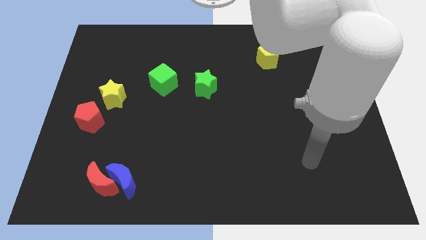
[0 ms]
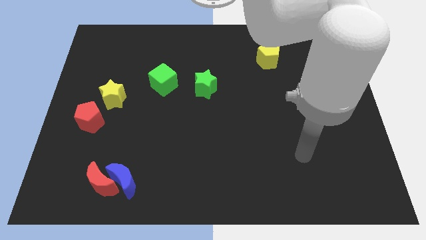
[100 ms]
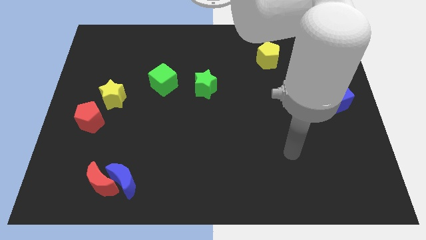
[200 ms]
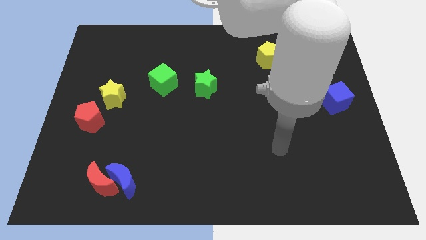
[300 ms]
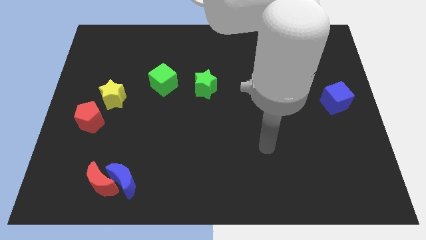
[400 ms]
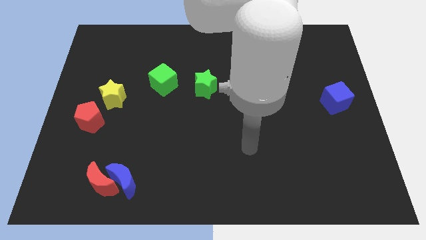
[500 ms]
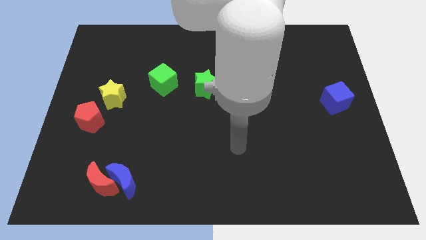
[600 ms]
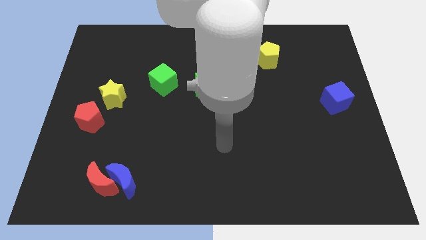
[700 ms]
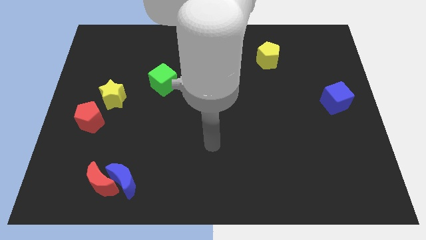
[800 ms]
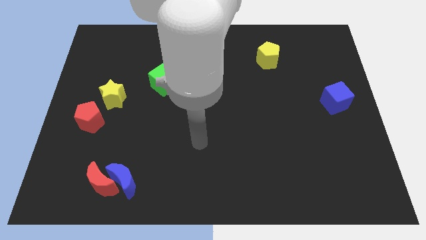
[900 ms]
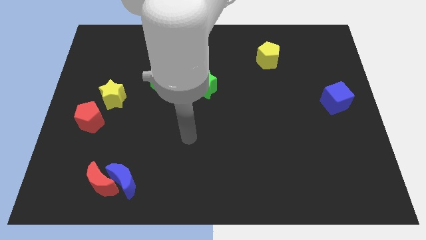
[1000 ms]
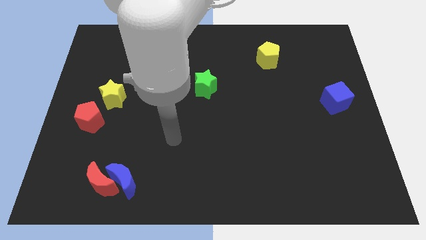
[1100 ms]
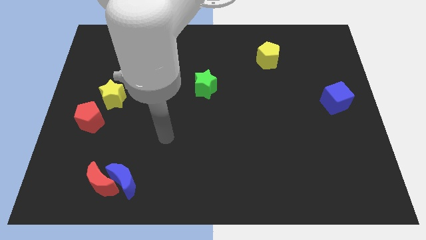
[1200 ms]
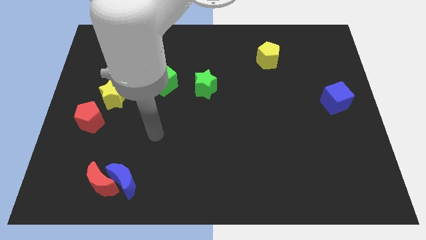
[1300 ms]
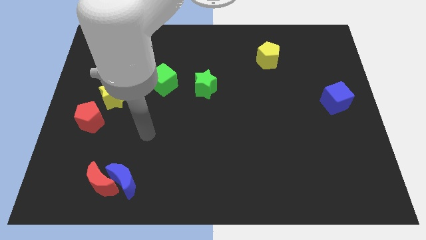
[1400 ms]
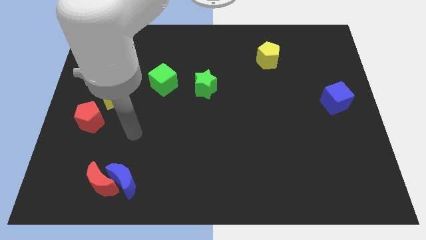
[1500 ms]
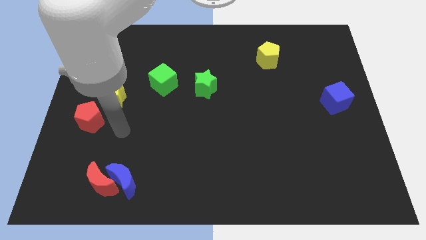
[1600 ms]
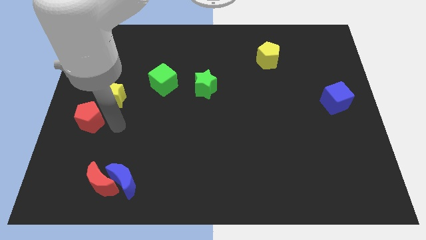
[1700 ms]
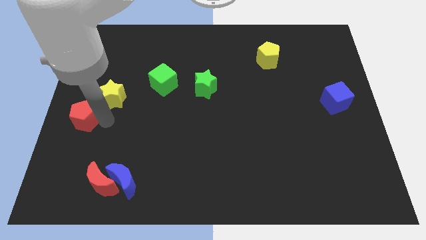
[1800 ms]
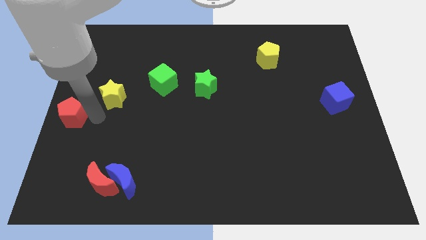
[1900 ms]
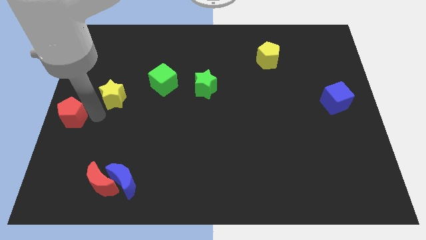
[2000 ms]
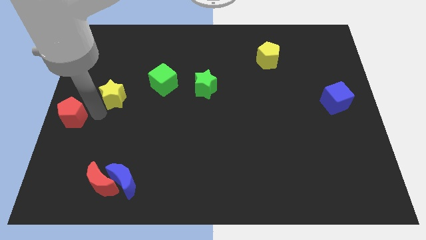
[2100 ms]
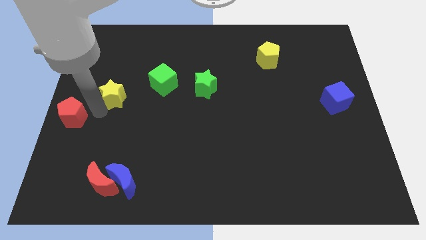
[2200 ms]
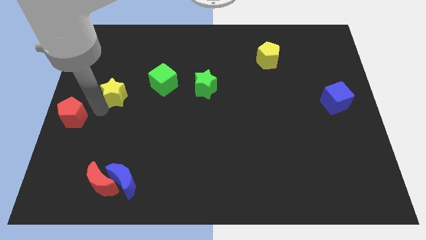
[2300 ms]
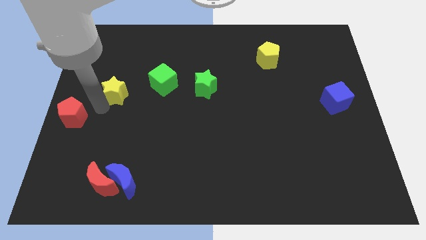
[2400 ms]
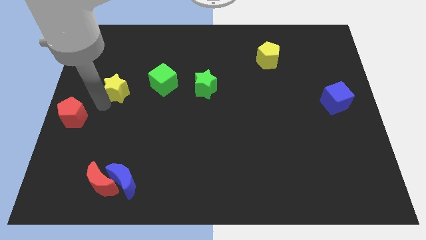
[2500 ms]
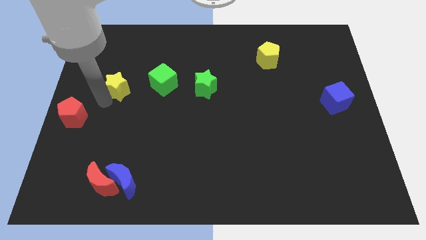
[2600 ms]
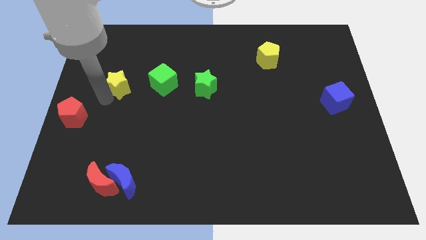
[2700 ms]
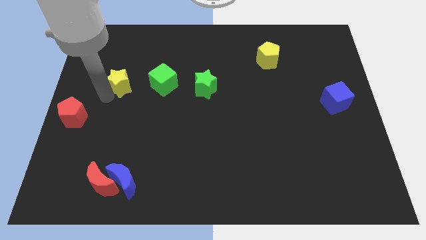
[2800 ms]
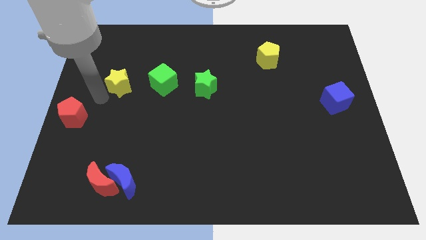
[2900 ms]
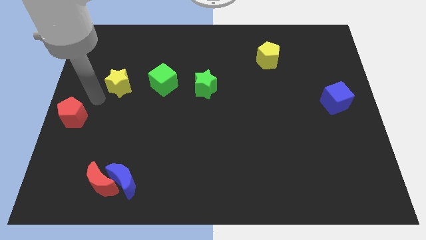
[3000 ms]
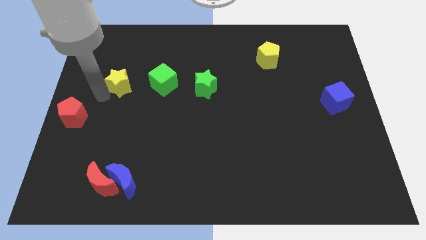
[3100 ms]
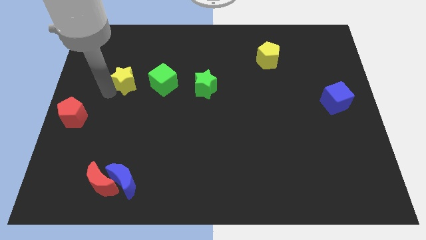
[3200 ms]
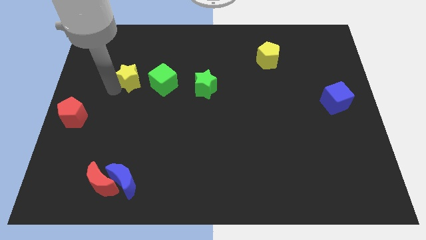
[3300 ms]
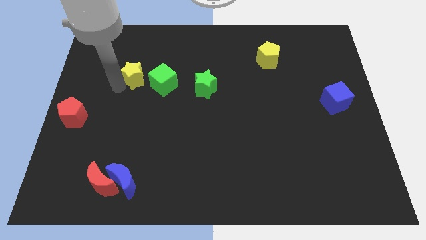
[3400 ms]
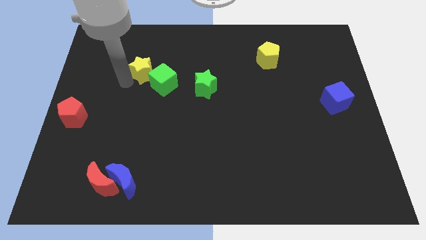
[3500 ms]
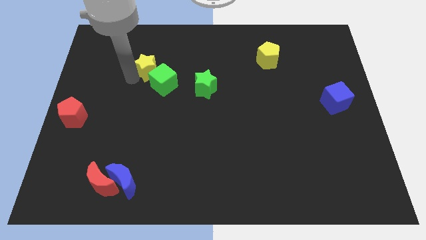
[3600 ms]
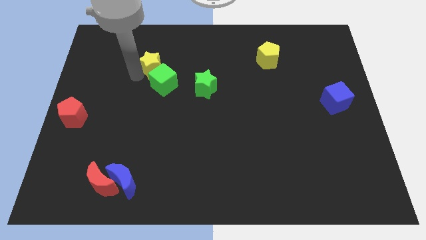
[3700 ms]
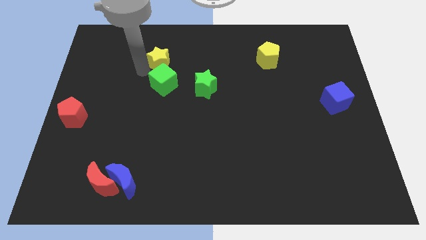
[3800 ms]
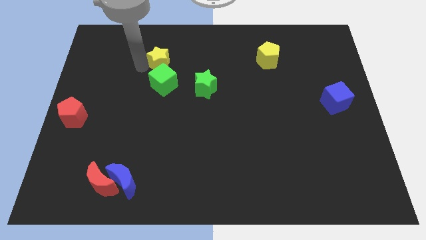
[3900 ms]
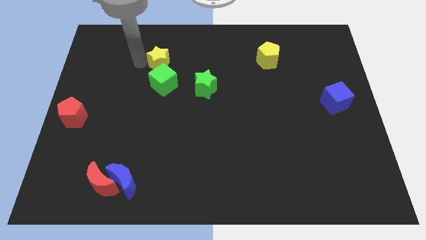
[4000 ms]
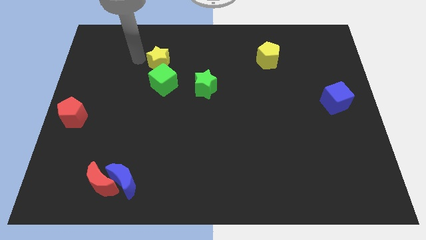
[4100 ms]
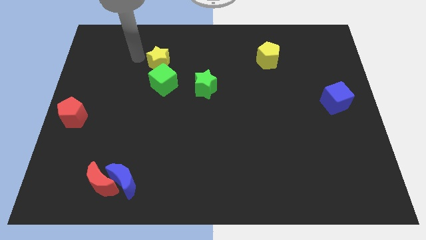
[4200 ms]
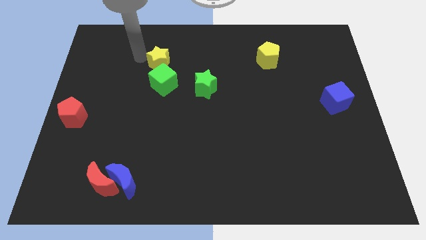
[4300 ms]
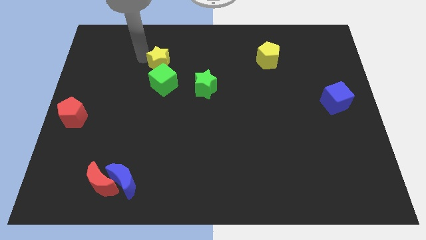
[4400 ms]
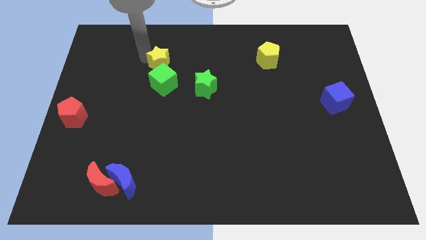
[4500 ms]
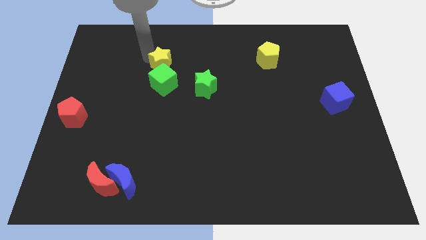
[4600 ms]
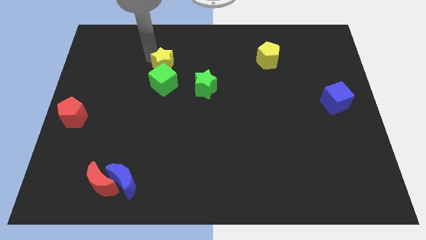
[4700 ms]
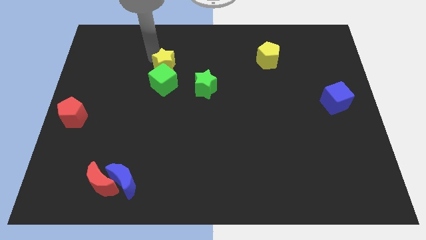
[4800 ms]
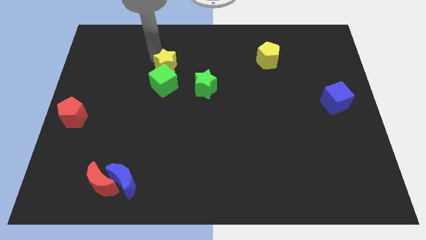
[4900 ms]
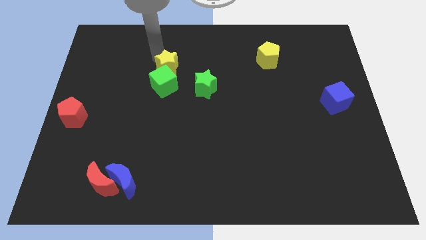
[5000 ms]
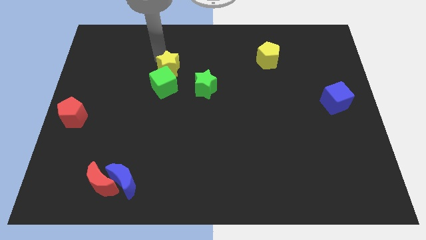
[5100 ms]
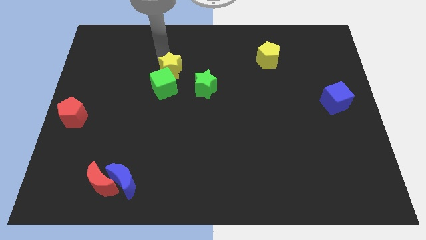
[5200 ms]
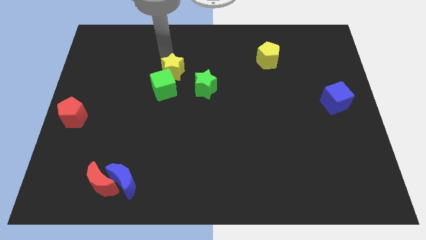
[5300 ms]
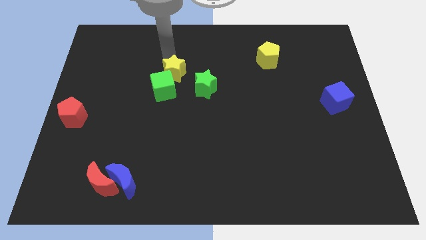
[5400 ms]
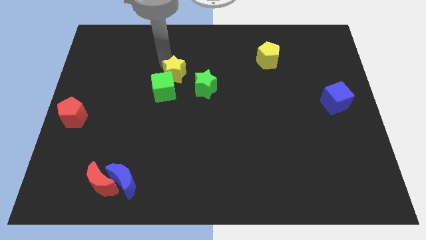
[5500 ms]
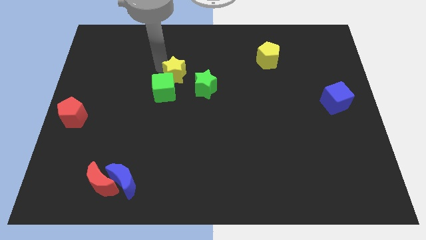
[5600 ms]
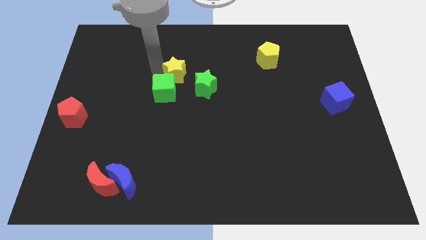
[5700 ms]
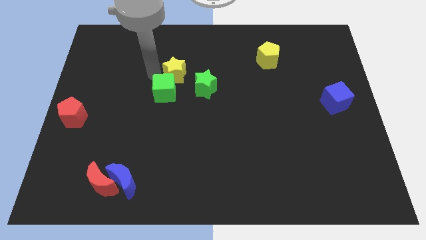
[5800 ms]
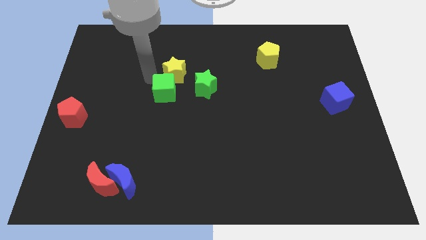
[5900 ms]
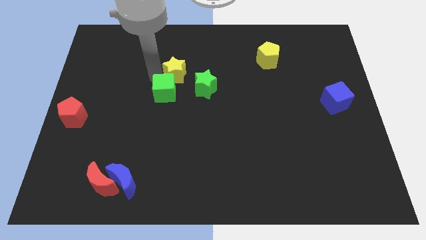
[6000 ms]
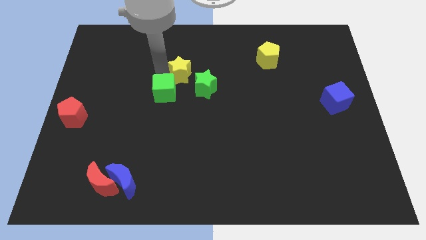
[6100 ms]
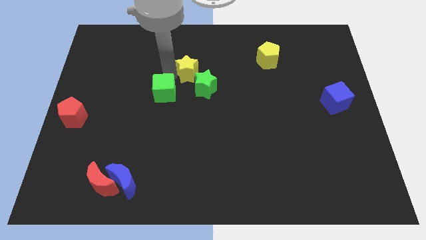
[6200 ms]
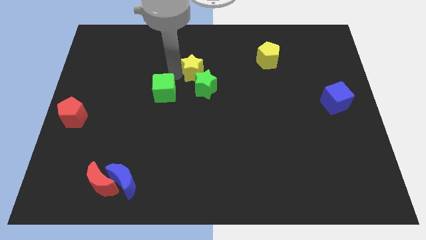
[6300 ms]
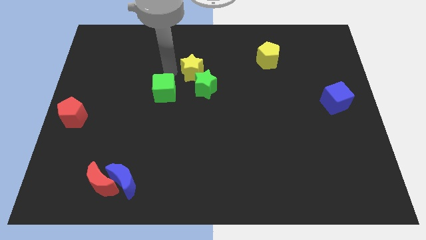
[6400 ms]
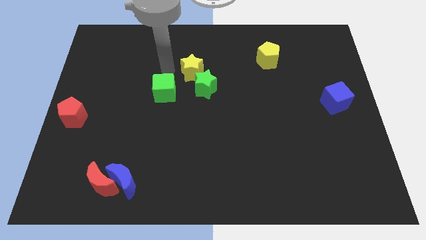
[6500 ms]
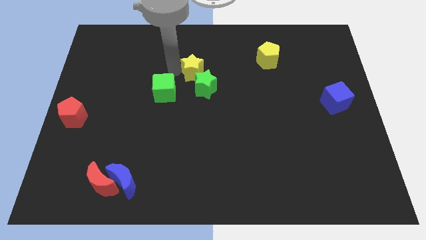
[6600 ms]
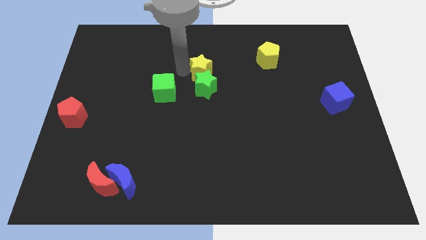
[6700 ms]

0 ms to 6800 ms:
put the yellow star to the top right side of the green star
